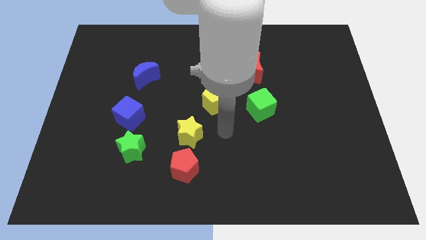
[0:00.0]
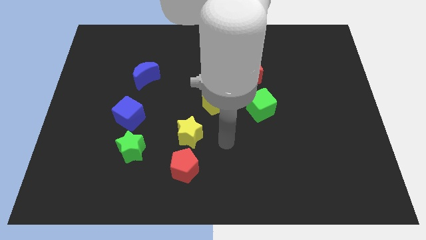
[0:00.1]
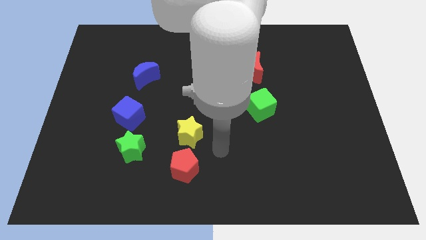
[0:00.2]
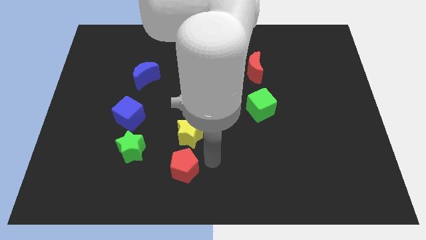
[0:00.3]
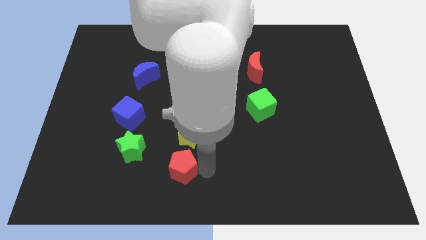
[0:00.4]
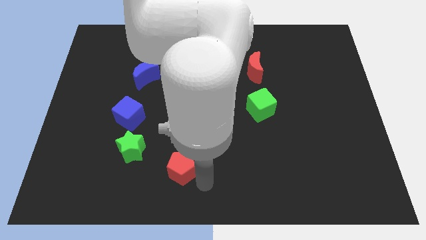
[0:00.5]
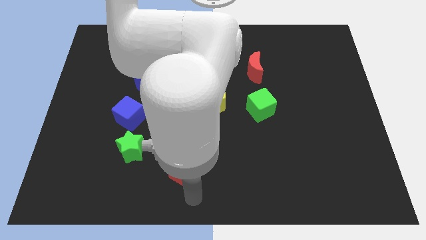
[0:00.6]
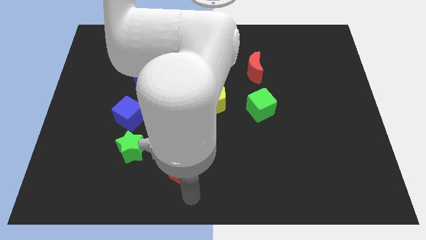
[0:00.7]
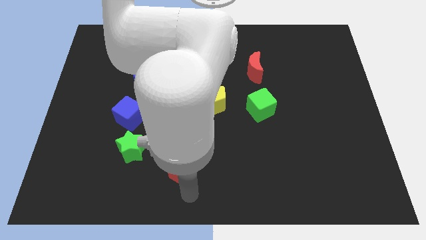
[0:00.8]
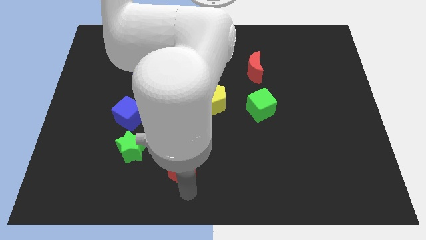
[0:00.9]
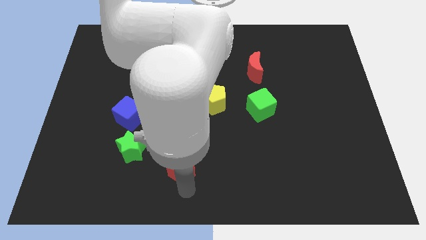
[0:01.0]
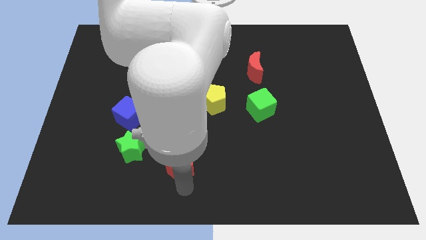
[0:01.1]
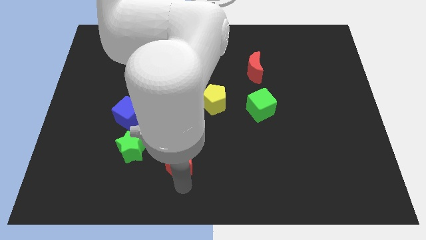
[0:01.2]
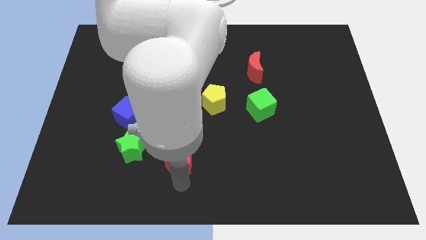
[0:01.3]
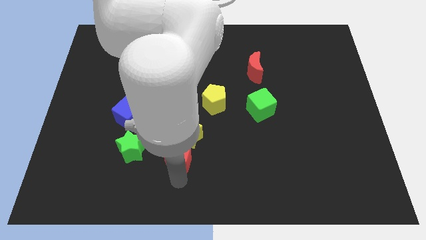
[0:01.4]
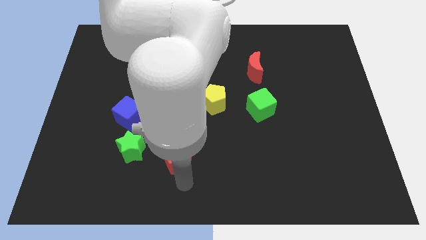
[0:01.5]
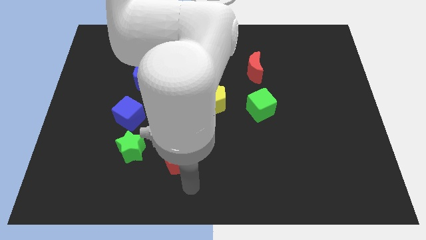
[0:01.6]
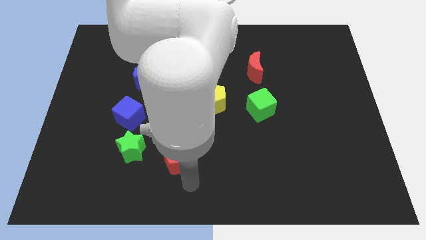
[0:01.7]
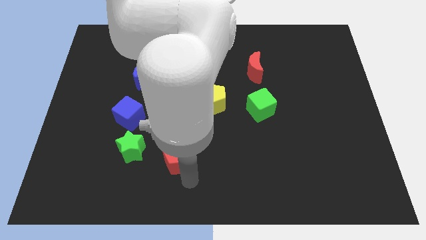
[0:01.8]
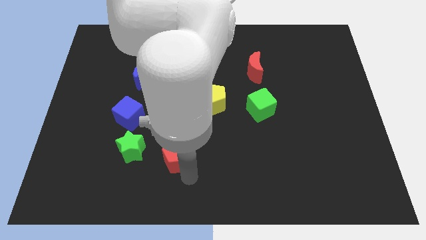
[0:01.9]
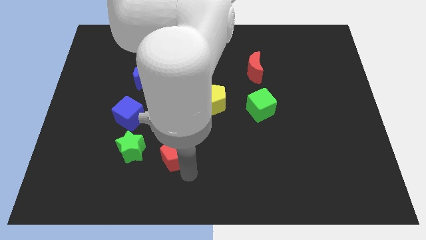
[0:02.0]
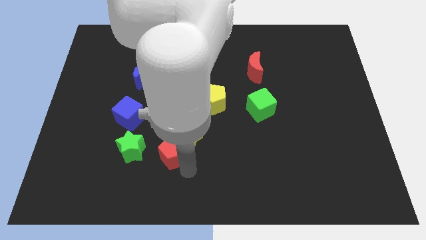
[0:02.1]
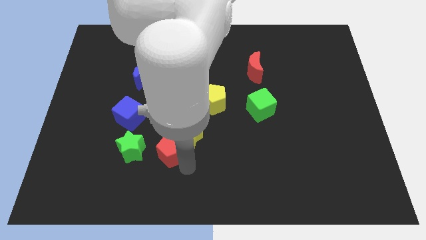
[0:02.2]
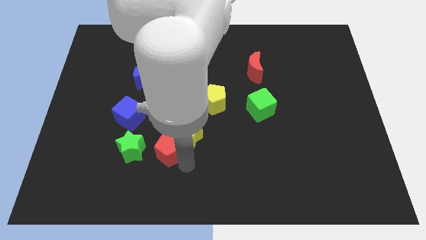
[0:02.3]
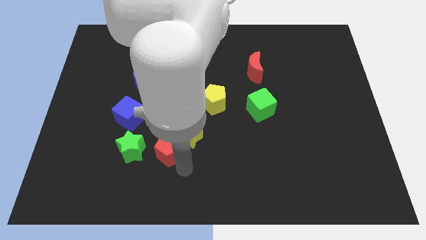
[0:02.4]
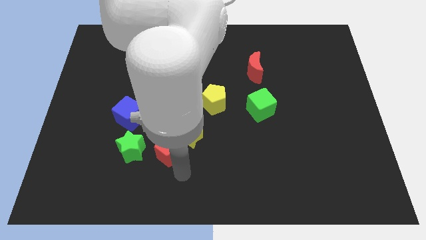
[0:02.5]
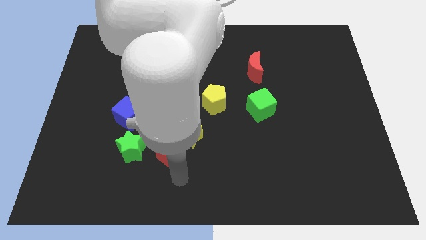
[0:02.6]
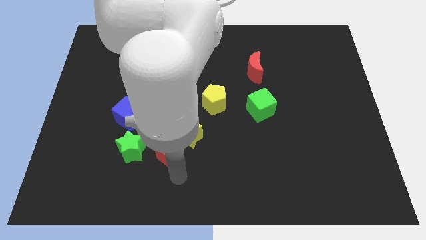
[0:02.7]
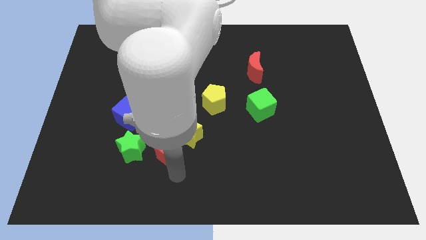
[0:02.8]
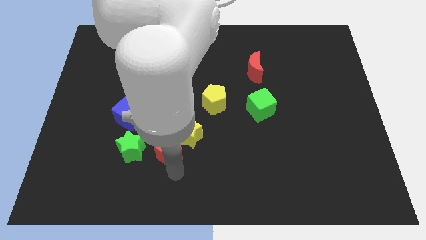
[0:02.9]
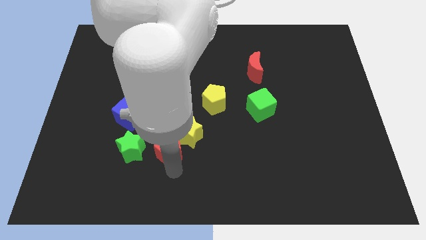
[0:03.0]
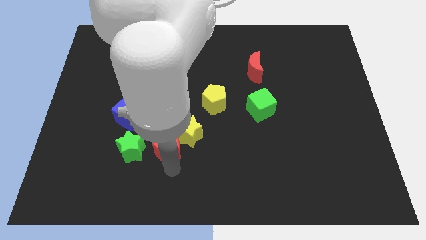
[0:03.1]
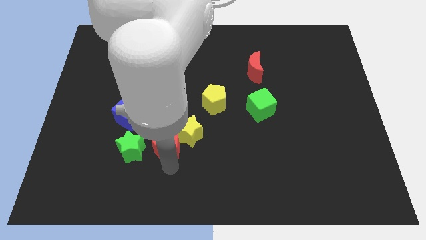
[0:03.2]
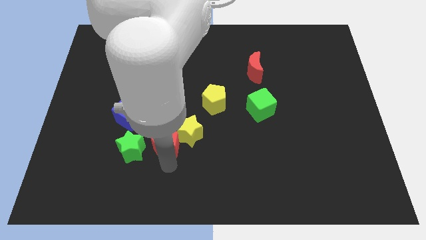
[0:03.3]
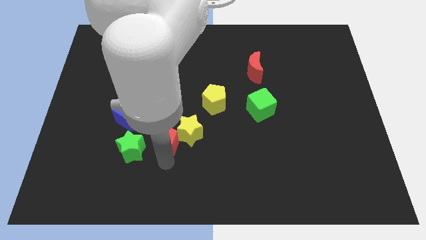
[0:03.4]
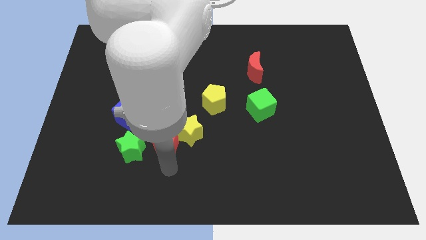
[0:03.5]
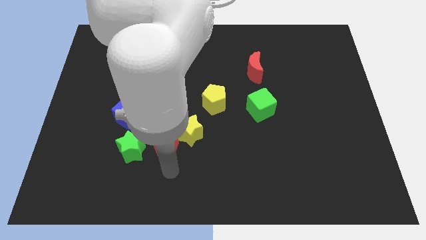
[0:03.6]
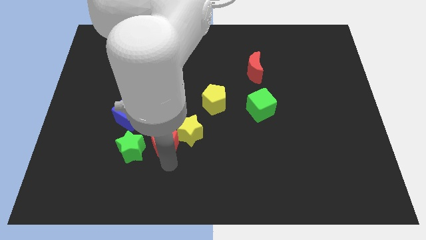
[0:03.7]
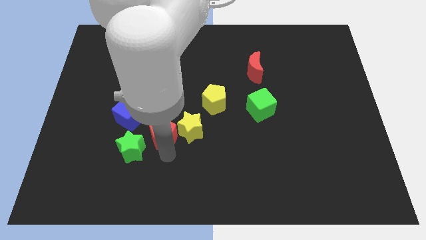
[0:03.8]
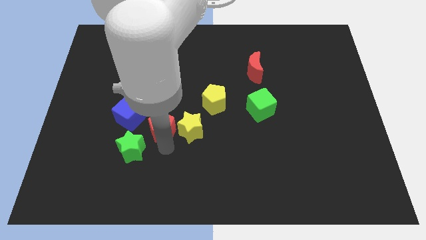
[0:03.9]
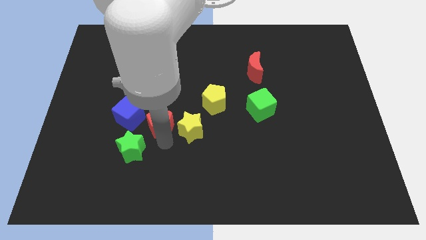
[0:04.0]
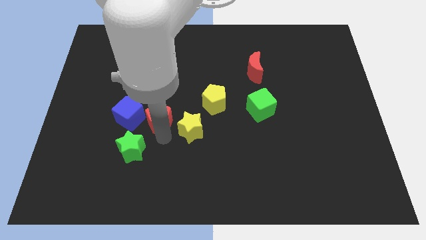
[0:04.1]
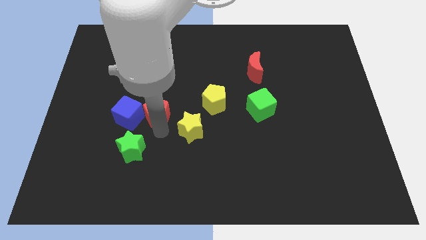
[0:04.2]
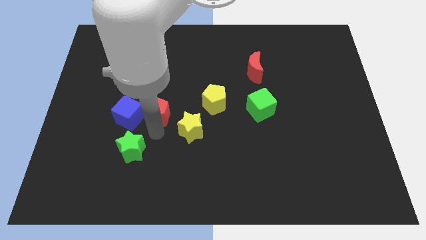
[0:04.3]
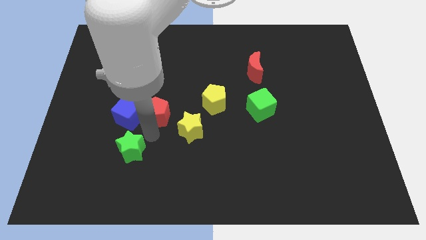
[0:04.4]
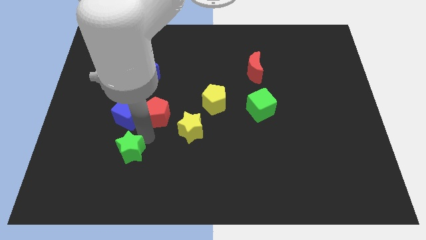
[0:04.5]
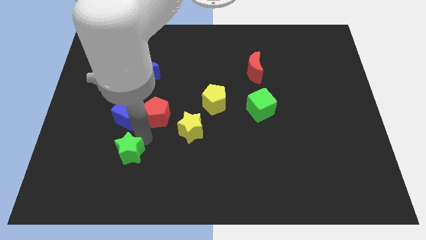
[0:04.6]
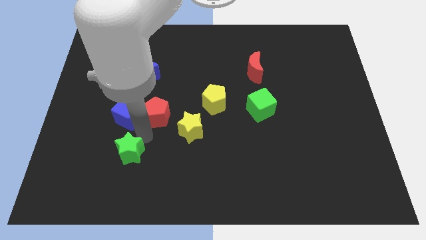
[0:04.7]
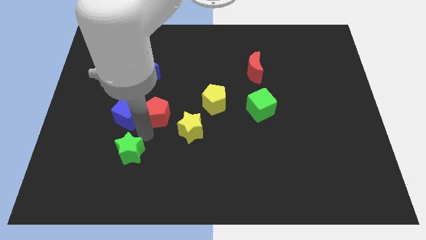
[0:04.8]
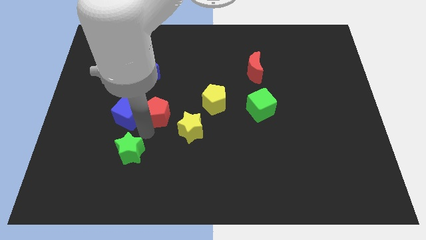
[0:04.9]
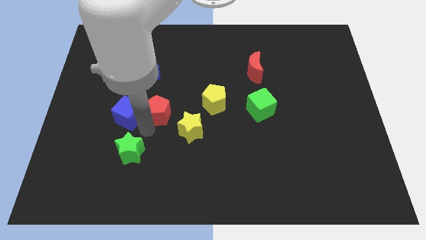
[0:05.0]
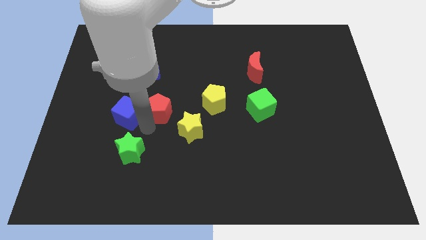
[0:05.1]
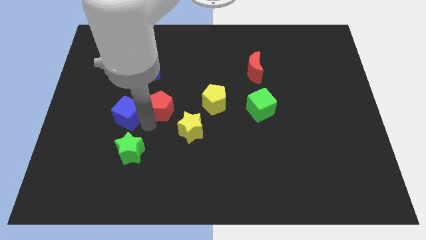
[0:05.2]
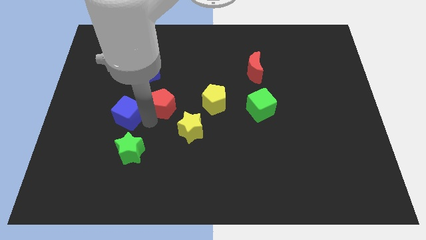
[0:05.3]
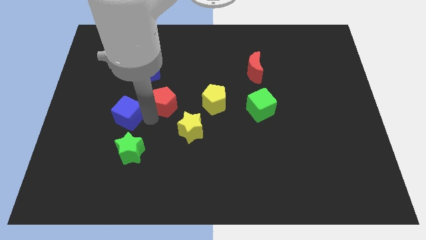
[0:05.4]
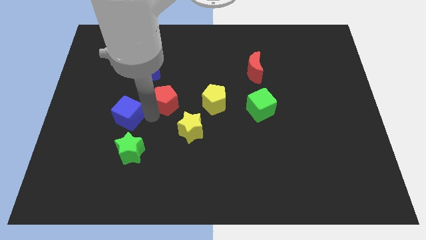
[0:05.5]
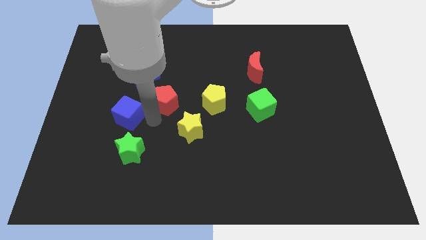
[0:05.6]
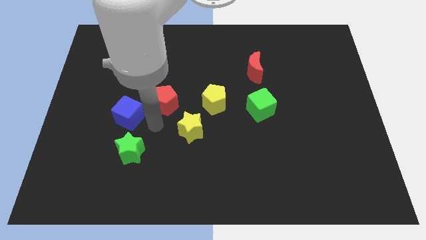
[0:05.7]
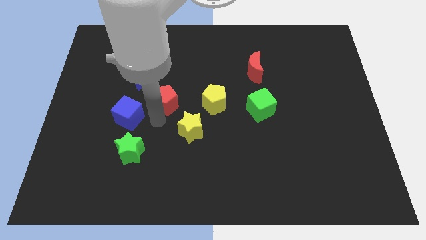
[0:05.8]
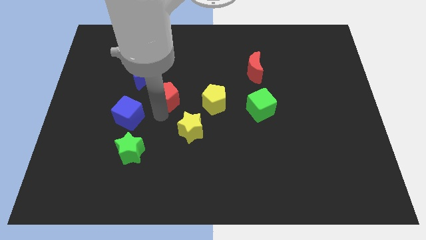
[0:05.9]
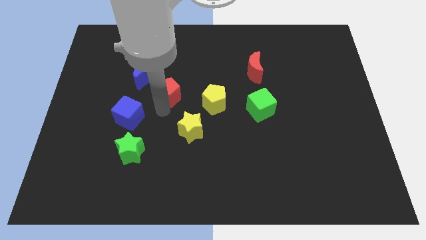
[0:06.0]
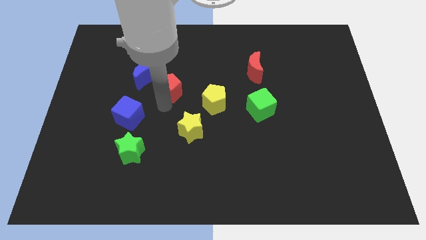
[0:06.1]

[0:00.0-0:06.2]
move the red pentagon upwards

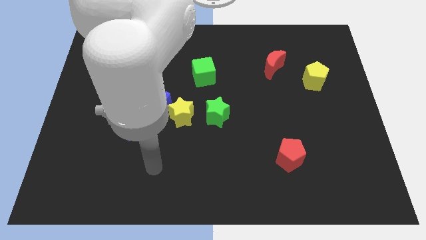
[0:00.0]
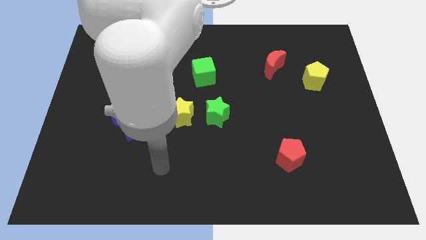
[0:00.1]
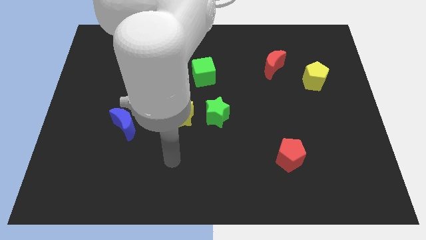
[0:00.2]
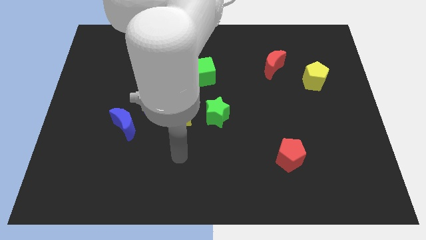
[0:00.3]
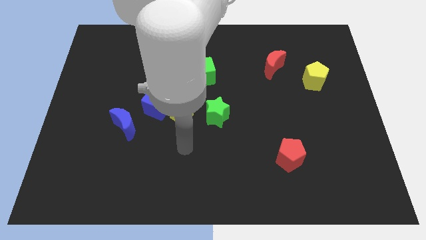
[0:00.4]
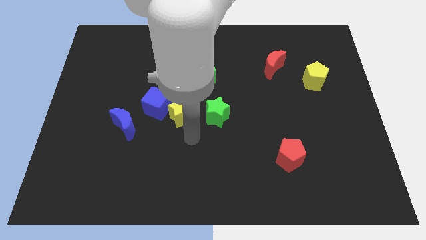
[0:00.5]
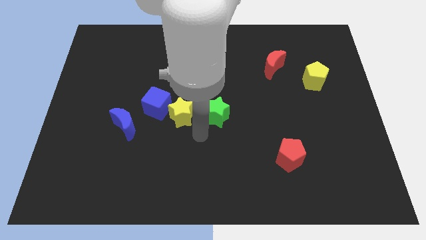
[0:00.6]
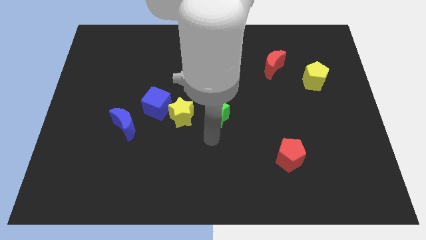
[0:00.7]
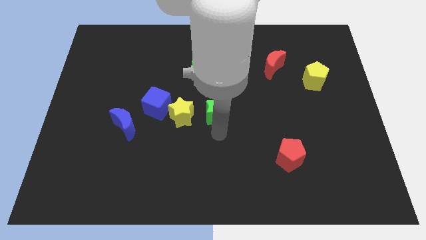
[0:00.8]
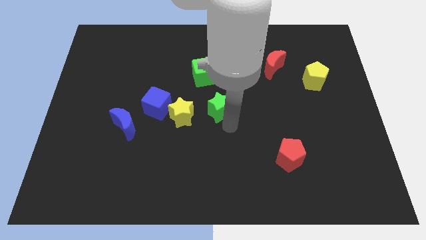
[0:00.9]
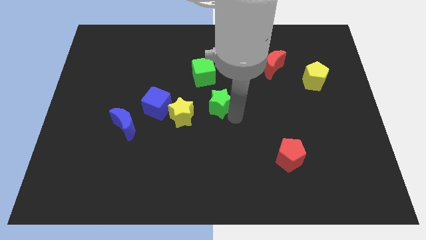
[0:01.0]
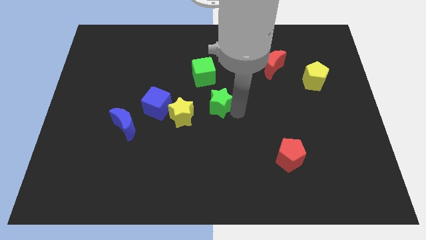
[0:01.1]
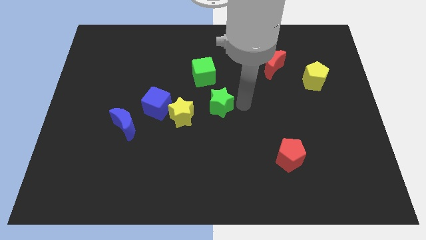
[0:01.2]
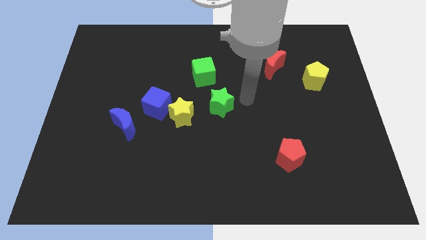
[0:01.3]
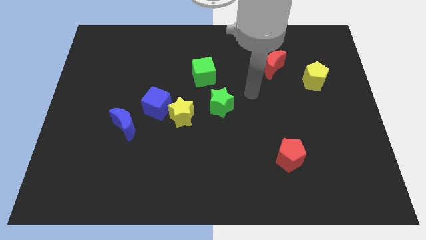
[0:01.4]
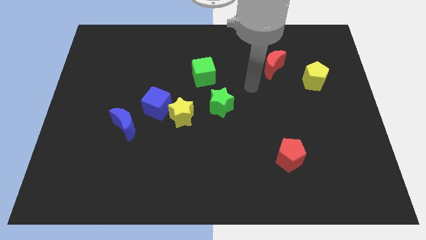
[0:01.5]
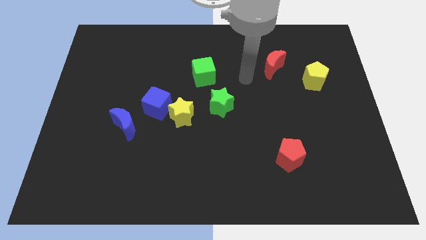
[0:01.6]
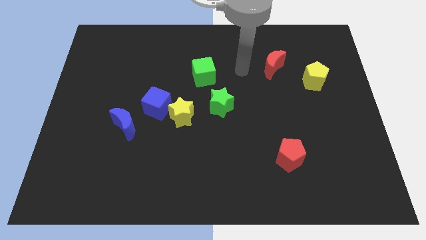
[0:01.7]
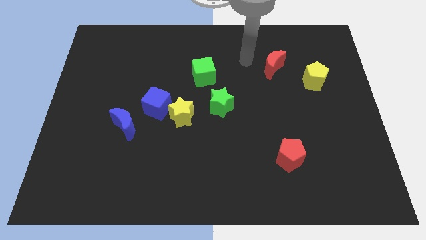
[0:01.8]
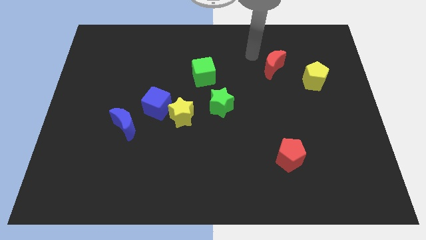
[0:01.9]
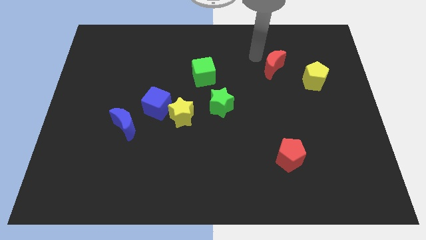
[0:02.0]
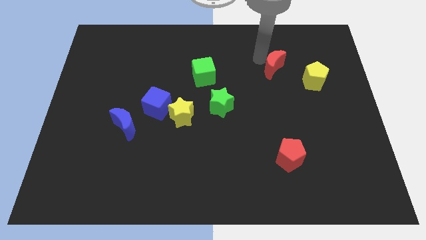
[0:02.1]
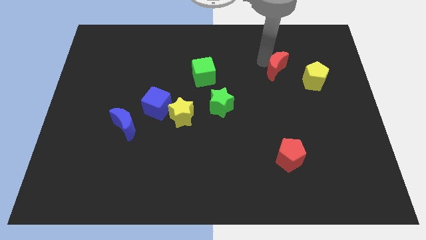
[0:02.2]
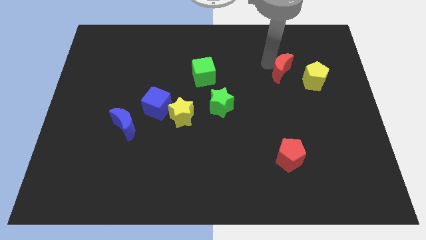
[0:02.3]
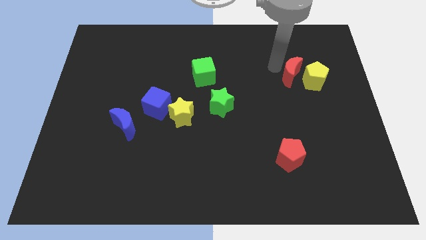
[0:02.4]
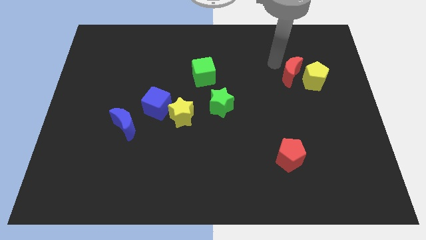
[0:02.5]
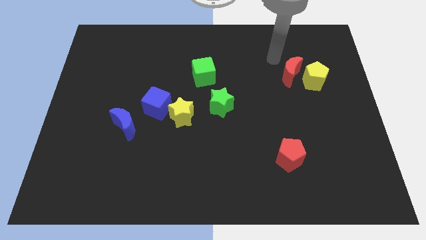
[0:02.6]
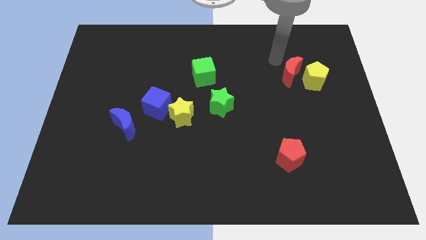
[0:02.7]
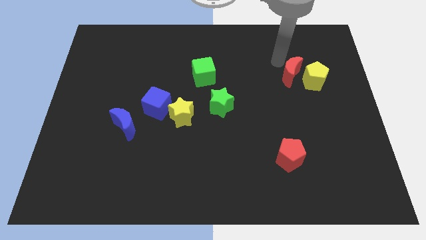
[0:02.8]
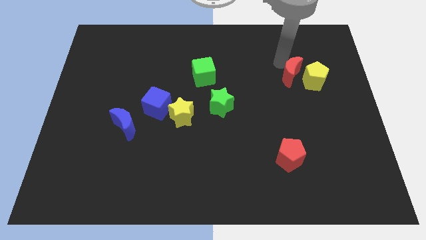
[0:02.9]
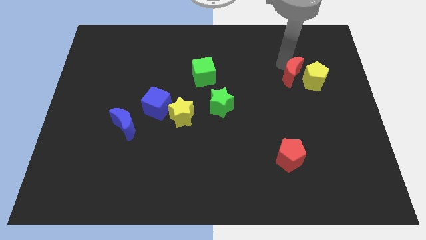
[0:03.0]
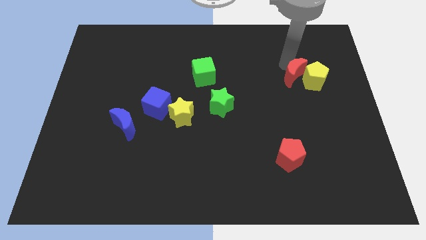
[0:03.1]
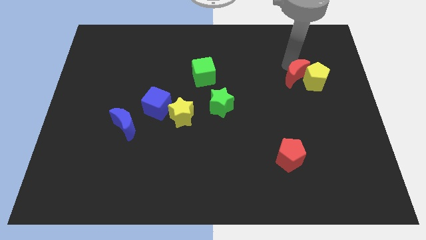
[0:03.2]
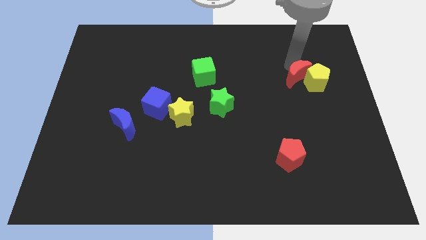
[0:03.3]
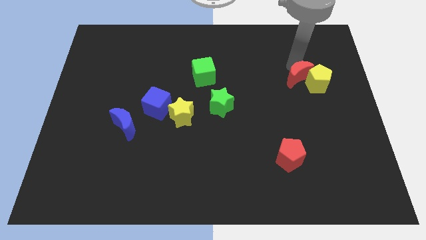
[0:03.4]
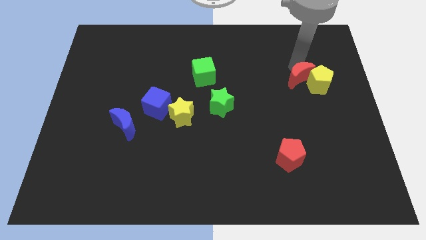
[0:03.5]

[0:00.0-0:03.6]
slightly slide the red moon downwards and right
